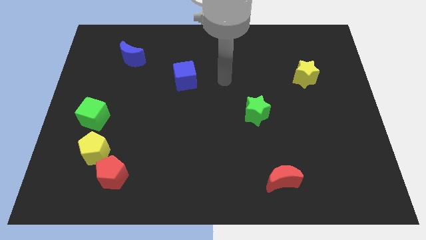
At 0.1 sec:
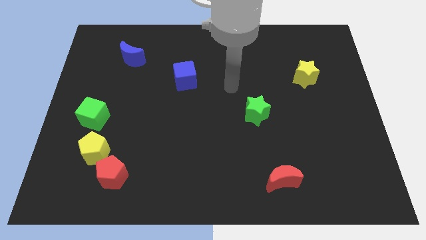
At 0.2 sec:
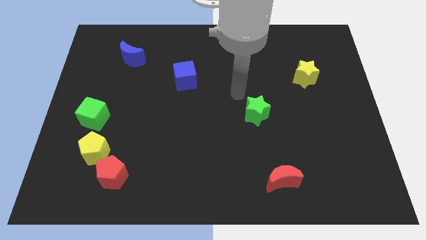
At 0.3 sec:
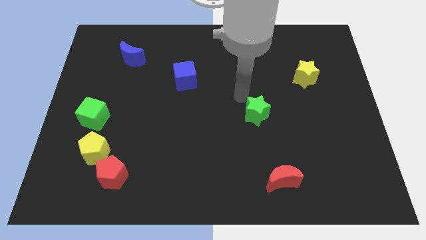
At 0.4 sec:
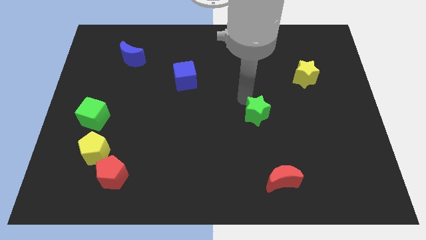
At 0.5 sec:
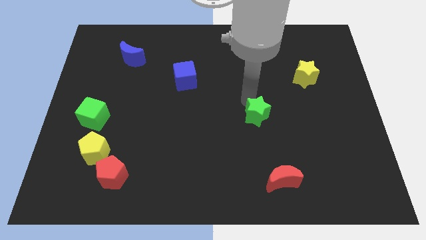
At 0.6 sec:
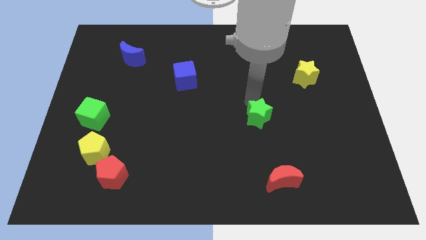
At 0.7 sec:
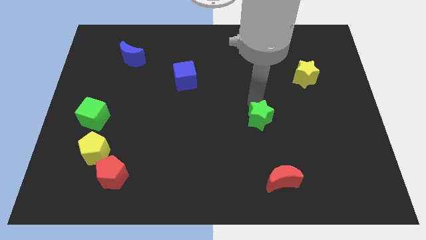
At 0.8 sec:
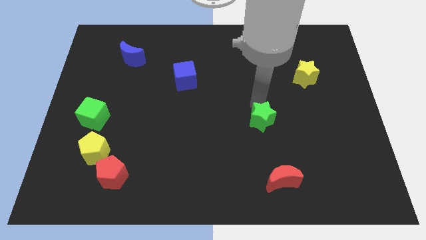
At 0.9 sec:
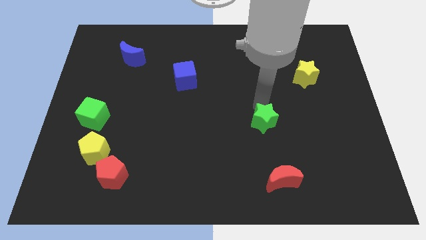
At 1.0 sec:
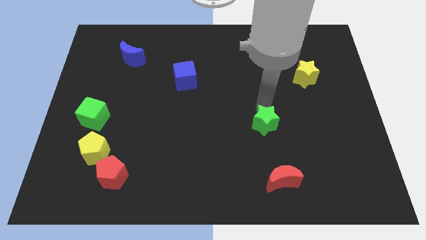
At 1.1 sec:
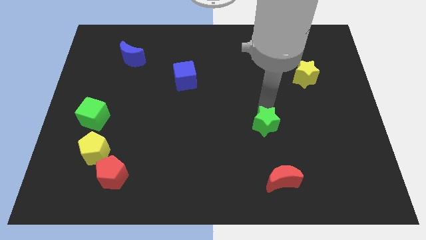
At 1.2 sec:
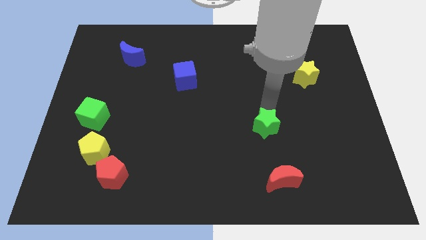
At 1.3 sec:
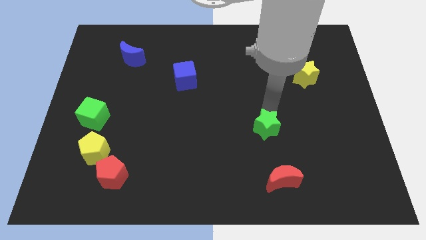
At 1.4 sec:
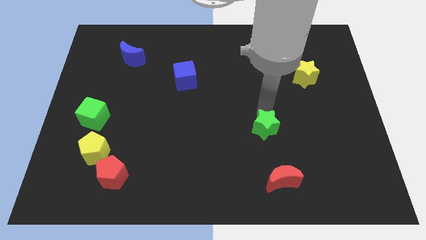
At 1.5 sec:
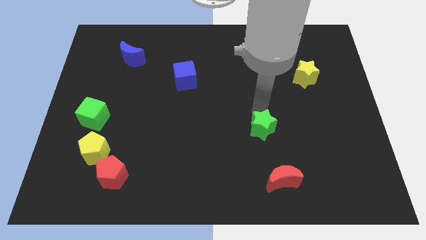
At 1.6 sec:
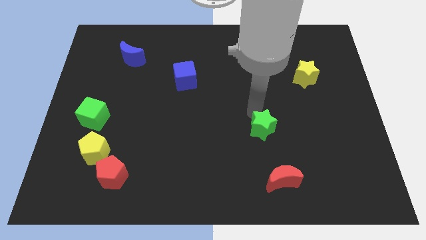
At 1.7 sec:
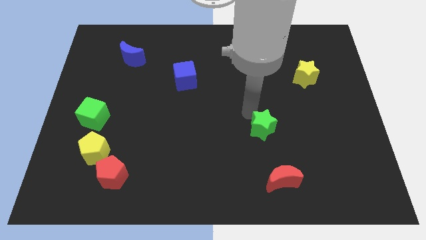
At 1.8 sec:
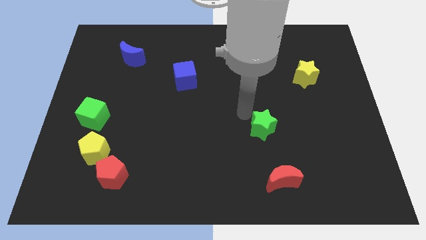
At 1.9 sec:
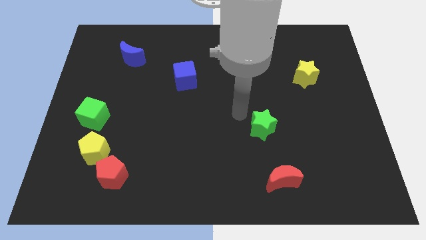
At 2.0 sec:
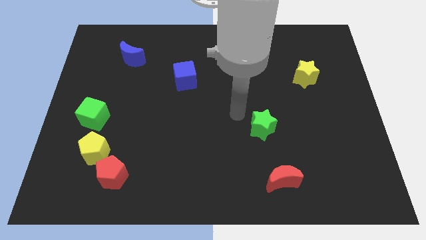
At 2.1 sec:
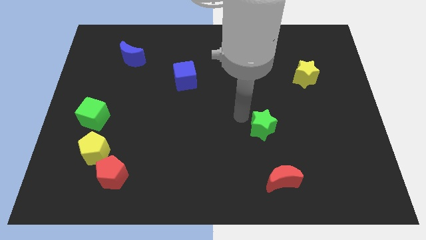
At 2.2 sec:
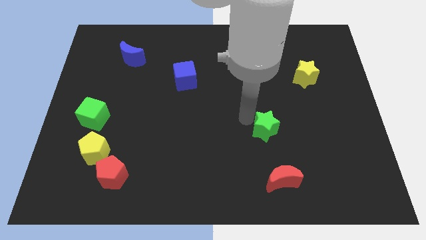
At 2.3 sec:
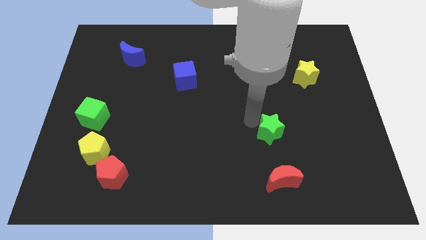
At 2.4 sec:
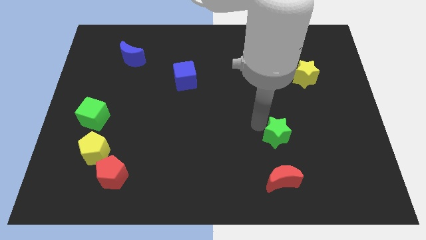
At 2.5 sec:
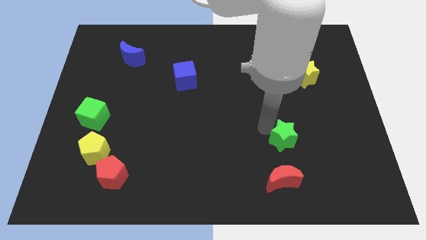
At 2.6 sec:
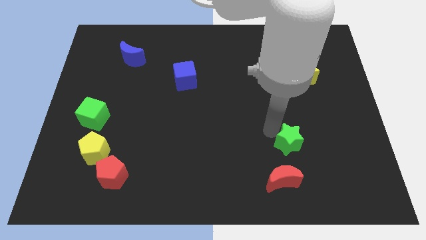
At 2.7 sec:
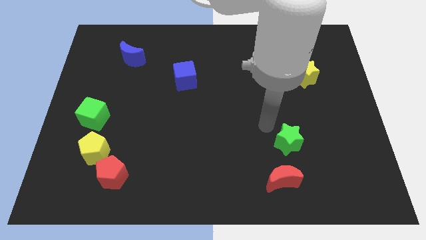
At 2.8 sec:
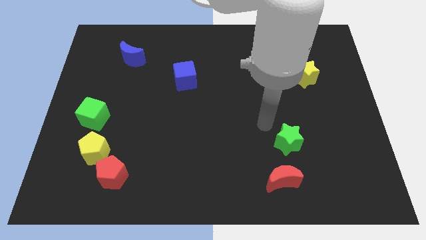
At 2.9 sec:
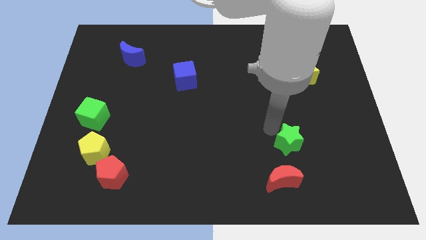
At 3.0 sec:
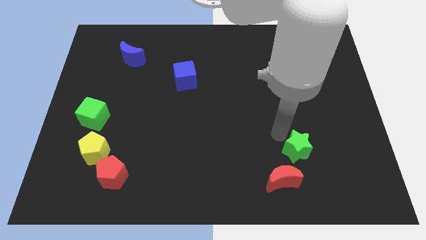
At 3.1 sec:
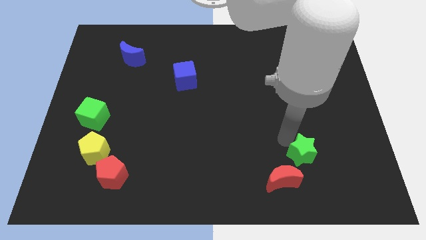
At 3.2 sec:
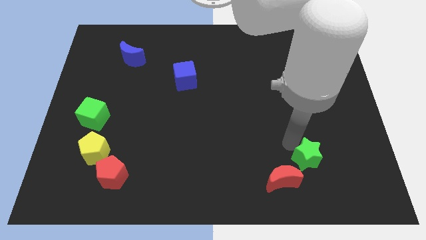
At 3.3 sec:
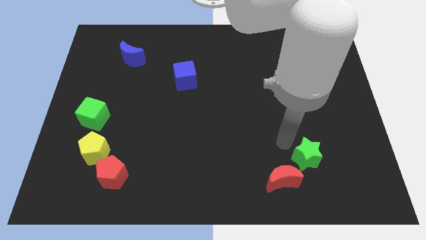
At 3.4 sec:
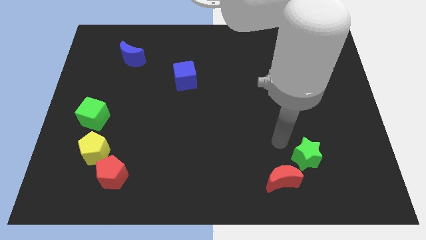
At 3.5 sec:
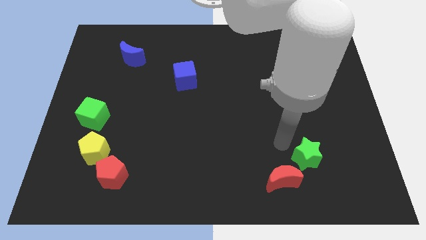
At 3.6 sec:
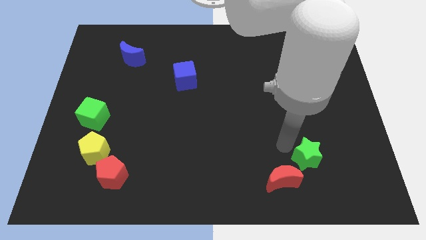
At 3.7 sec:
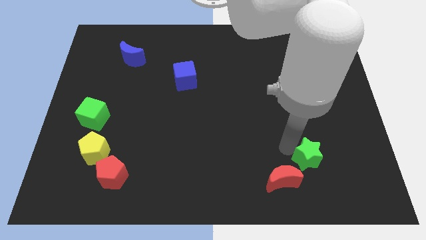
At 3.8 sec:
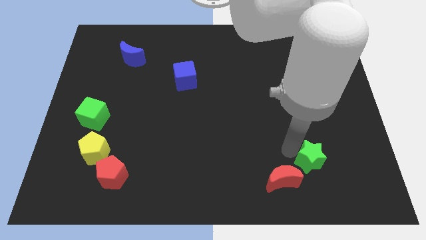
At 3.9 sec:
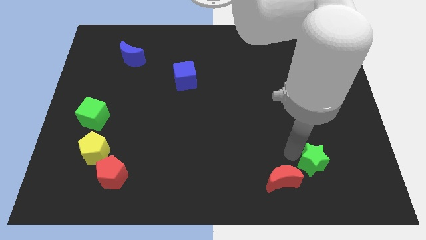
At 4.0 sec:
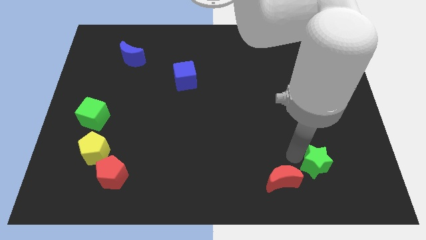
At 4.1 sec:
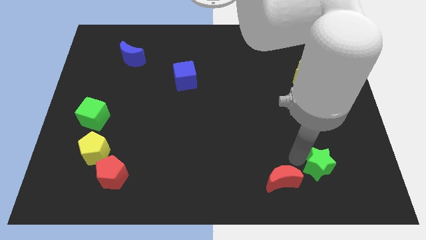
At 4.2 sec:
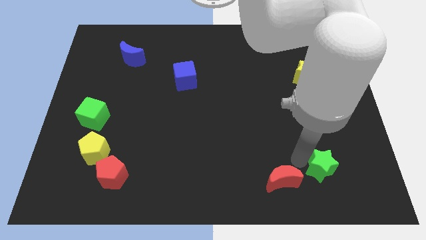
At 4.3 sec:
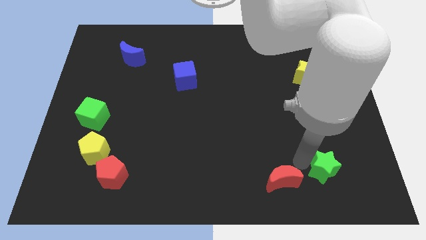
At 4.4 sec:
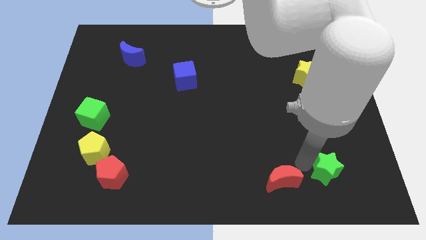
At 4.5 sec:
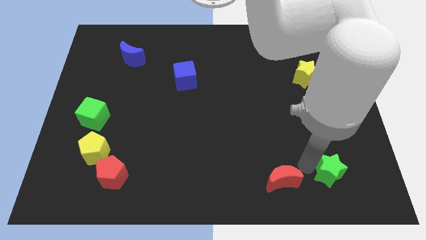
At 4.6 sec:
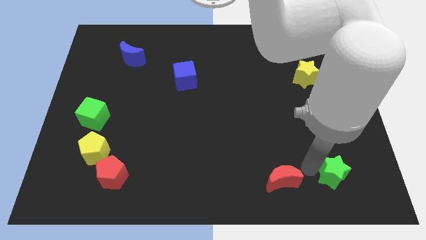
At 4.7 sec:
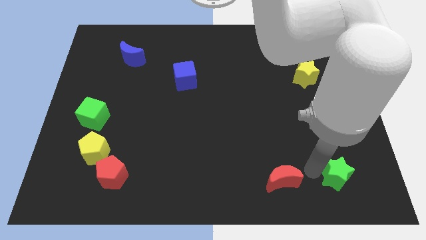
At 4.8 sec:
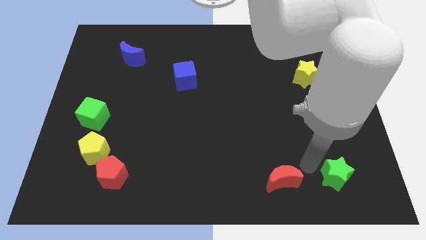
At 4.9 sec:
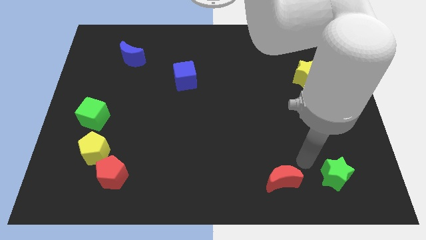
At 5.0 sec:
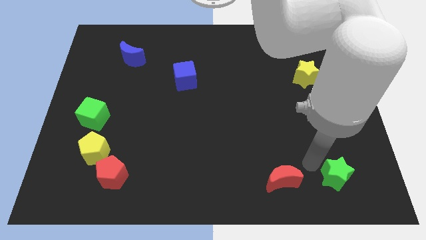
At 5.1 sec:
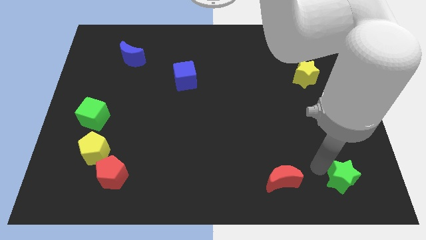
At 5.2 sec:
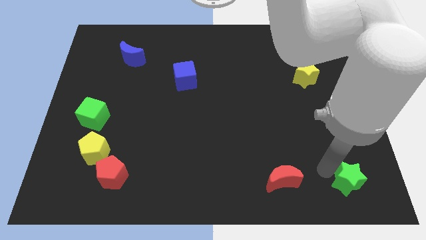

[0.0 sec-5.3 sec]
put the green star to the bottom right of the board

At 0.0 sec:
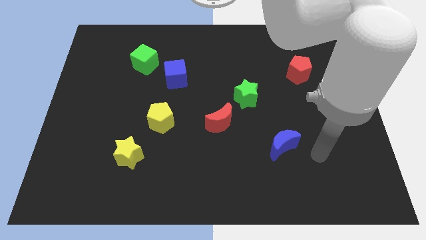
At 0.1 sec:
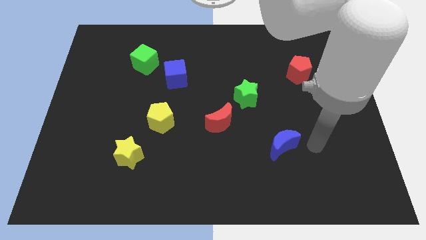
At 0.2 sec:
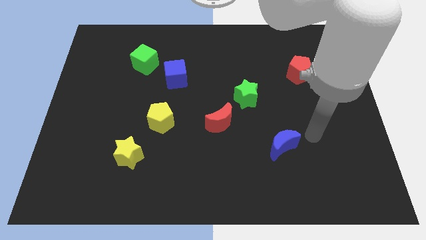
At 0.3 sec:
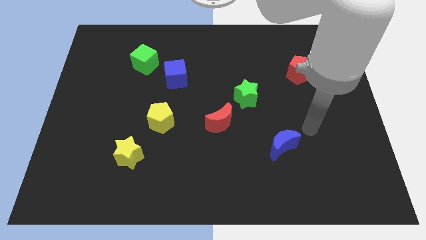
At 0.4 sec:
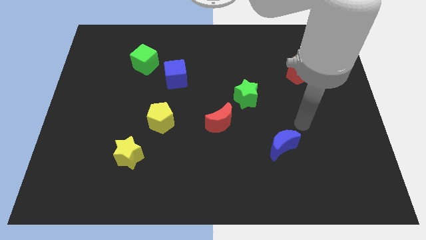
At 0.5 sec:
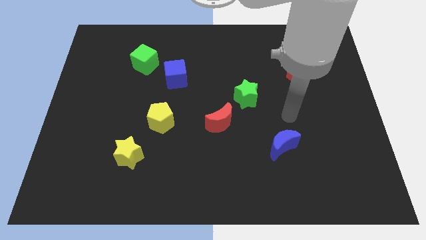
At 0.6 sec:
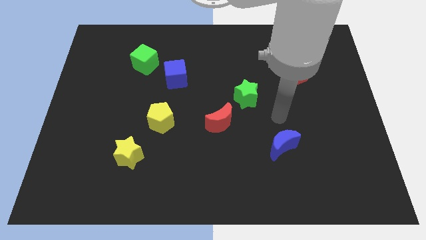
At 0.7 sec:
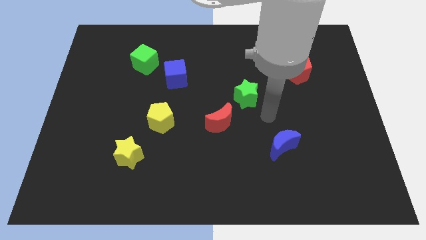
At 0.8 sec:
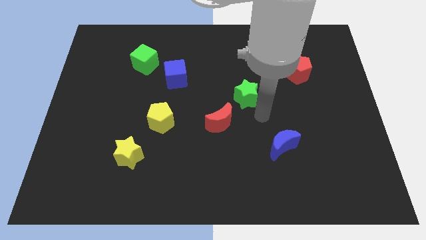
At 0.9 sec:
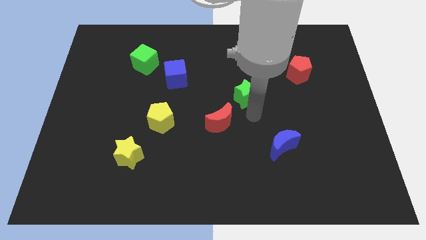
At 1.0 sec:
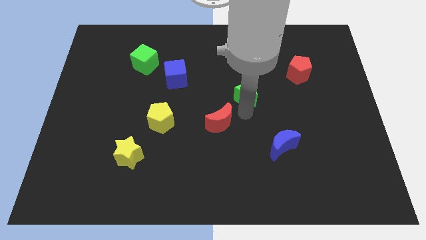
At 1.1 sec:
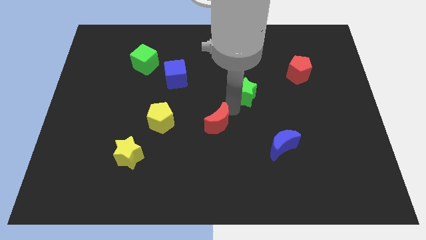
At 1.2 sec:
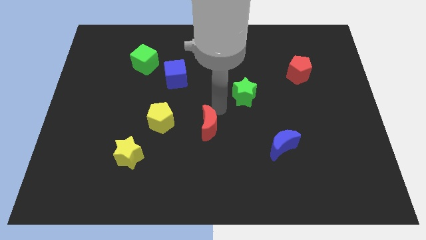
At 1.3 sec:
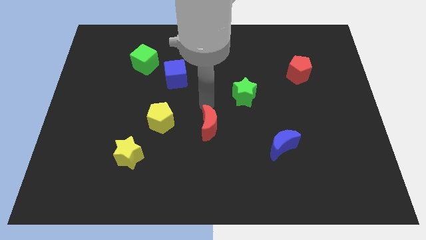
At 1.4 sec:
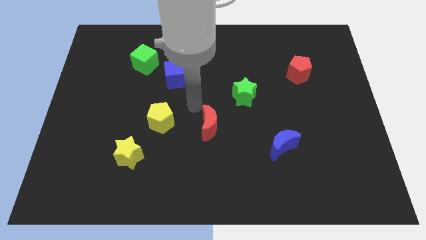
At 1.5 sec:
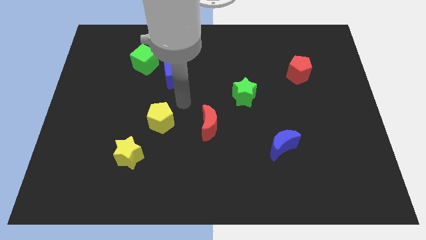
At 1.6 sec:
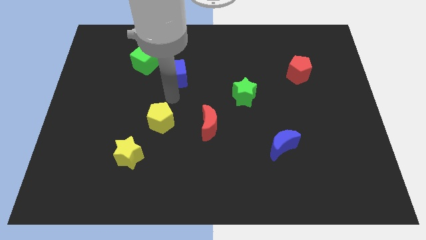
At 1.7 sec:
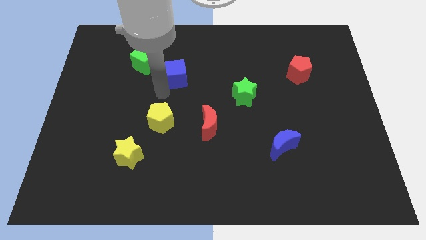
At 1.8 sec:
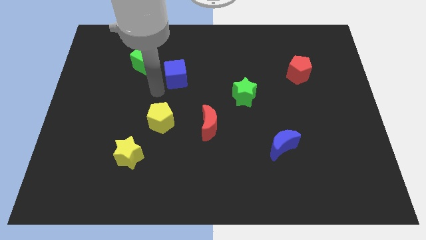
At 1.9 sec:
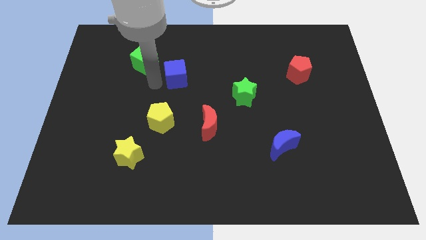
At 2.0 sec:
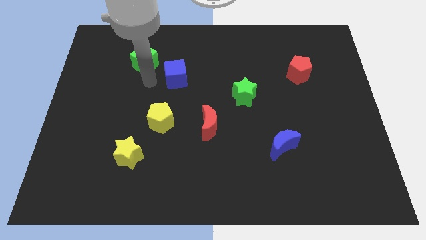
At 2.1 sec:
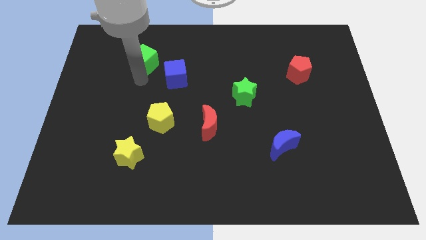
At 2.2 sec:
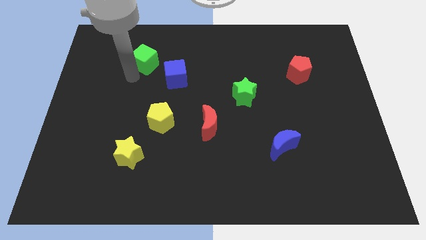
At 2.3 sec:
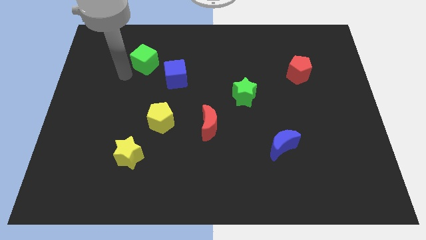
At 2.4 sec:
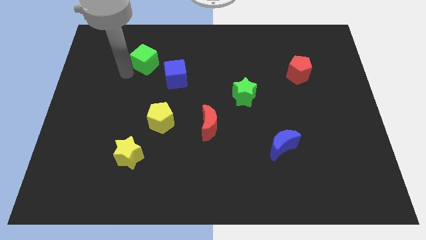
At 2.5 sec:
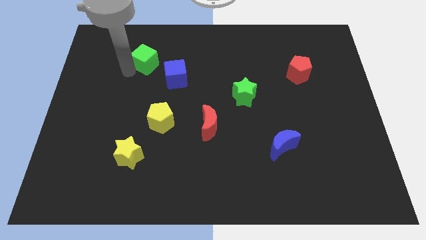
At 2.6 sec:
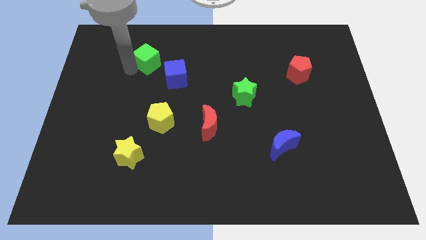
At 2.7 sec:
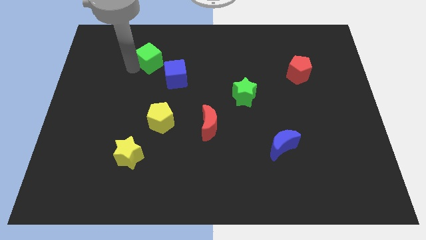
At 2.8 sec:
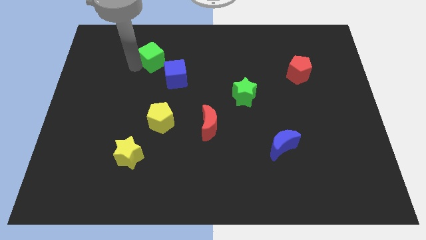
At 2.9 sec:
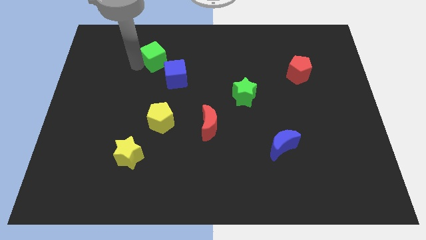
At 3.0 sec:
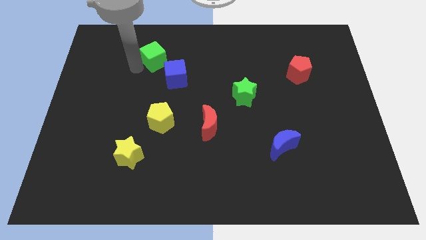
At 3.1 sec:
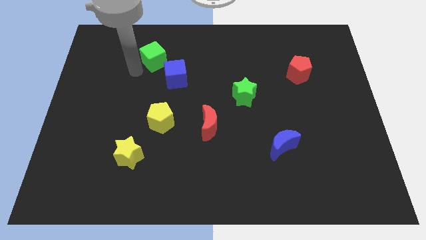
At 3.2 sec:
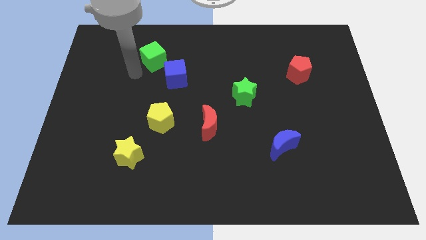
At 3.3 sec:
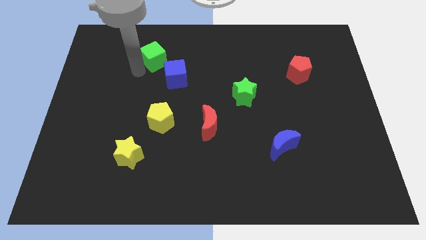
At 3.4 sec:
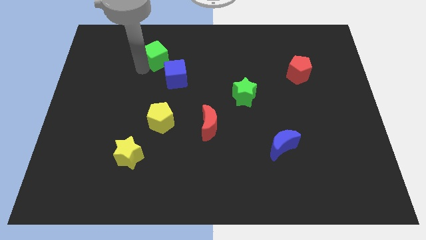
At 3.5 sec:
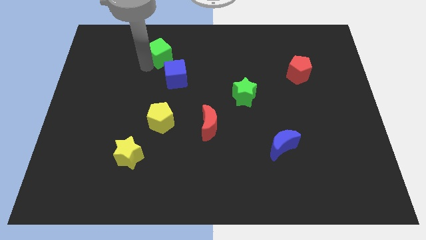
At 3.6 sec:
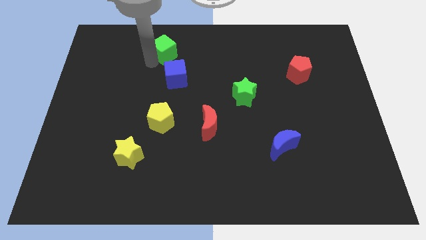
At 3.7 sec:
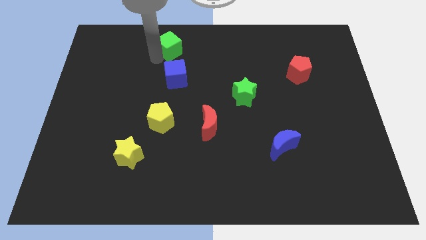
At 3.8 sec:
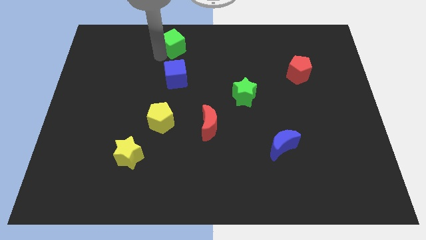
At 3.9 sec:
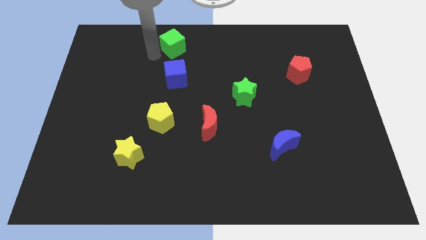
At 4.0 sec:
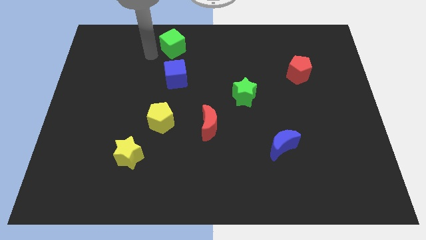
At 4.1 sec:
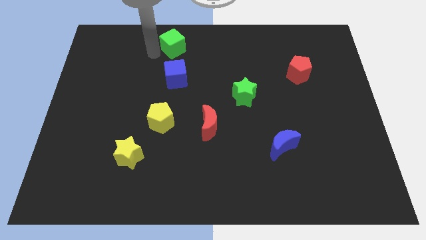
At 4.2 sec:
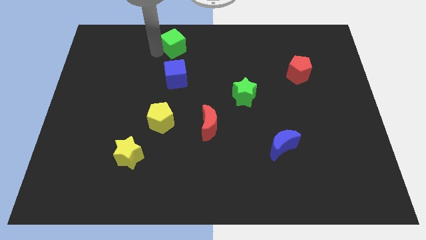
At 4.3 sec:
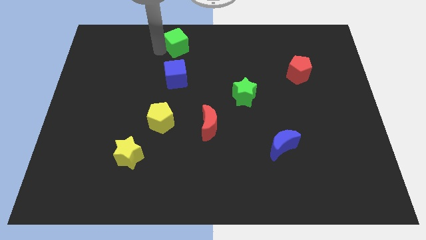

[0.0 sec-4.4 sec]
push the green cube to the towards your base
